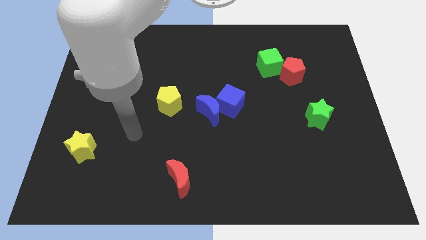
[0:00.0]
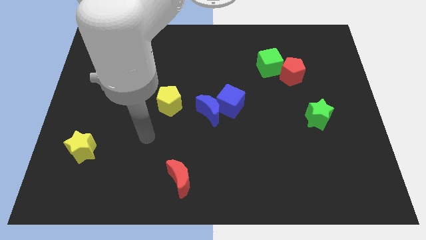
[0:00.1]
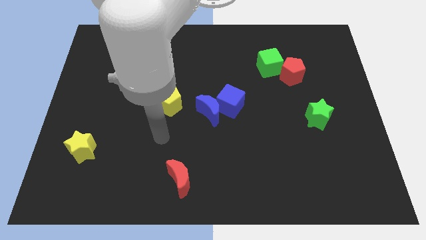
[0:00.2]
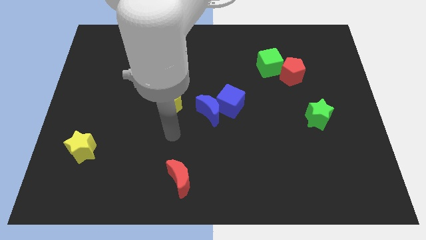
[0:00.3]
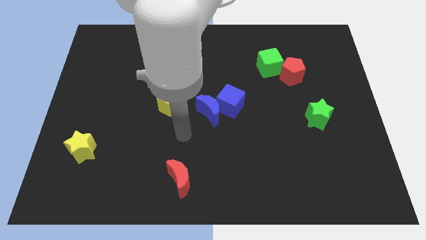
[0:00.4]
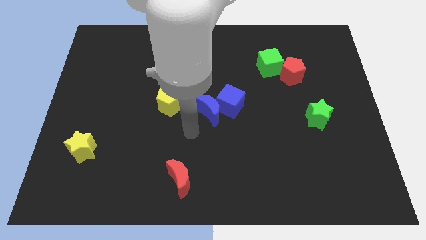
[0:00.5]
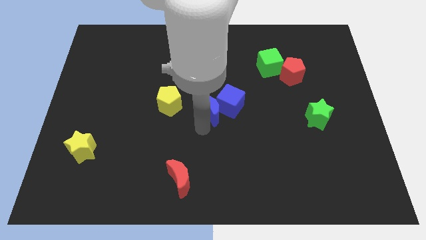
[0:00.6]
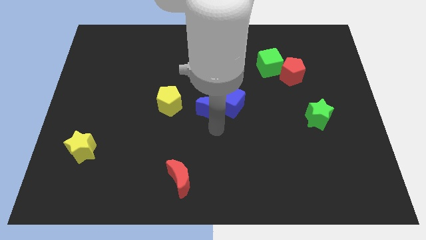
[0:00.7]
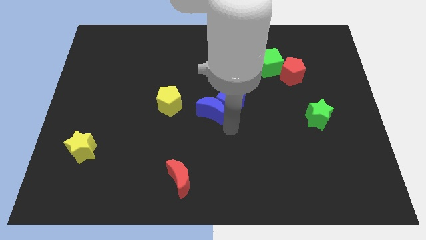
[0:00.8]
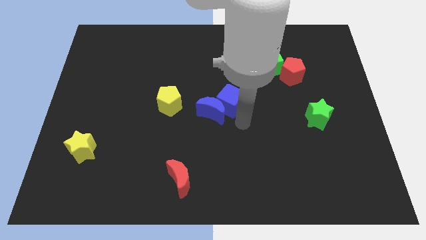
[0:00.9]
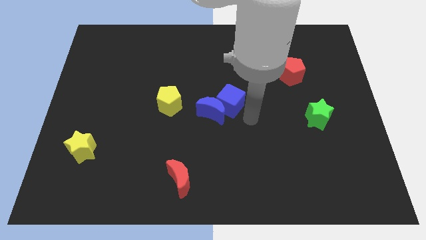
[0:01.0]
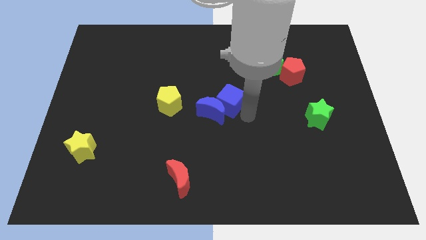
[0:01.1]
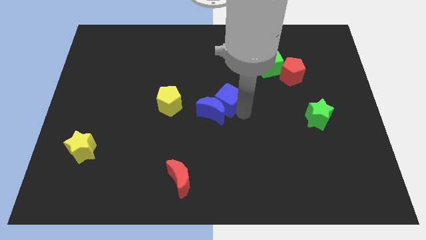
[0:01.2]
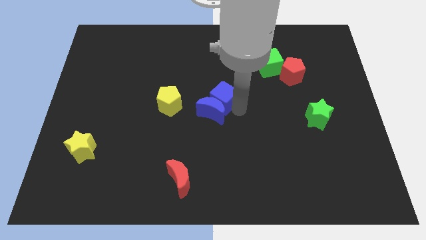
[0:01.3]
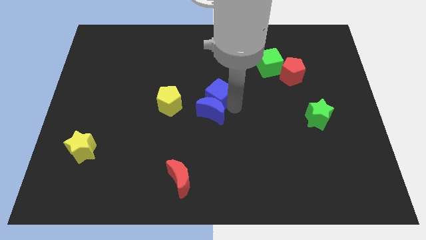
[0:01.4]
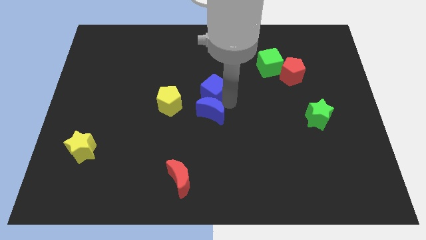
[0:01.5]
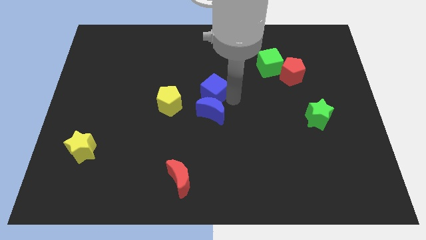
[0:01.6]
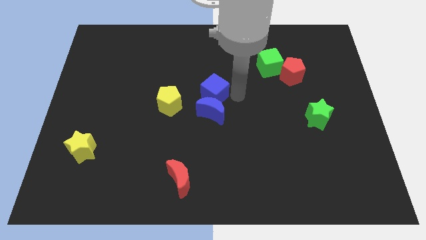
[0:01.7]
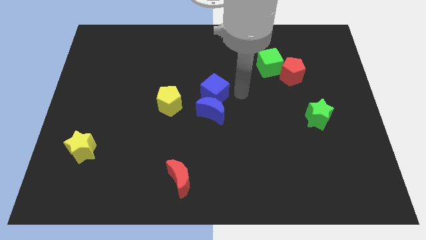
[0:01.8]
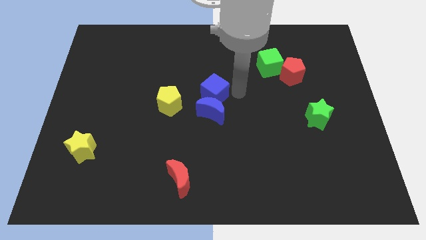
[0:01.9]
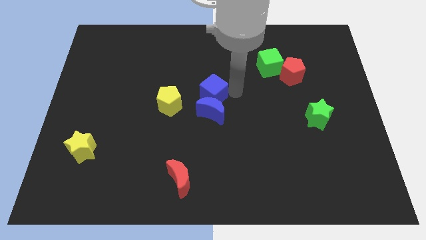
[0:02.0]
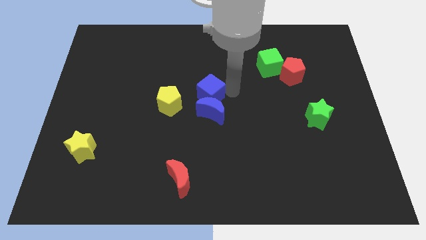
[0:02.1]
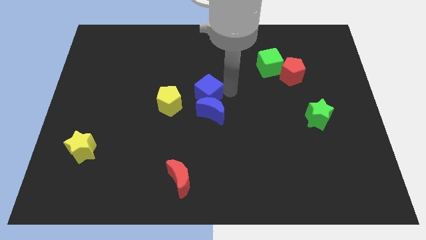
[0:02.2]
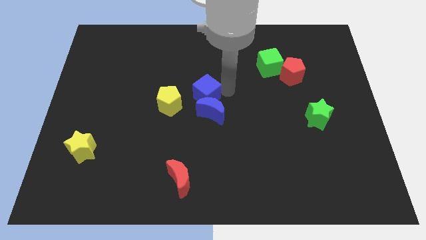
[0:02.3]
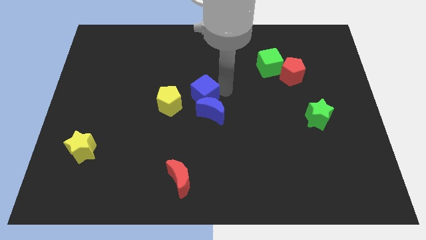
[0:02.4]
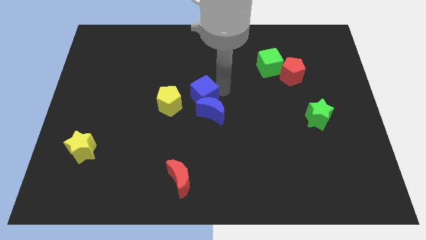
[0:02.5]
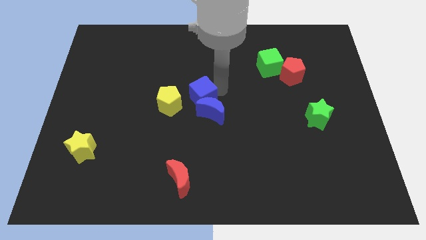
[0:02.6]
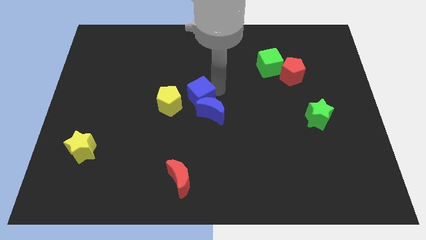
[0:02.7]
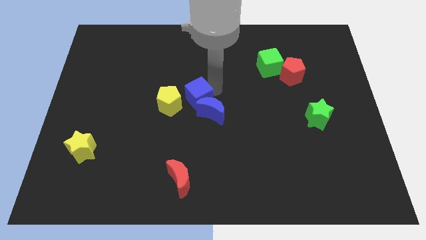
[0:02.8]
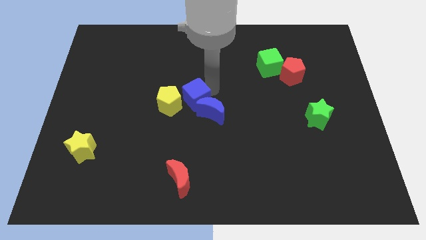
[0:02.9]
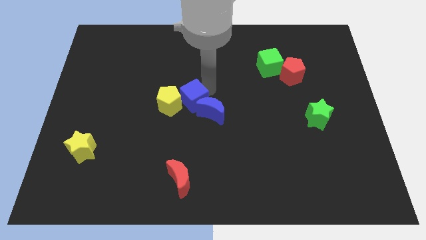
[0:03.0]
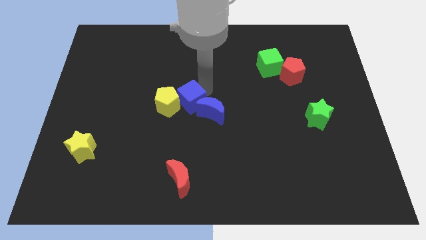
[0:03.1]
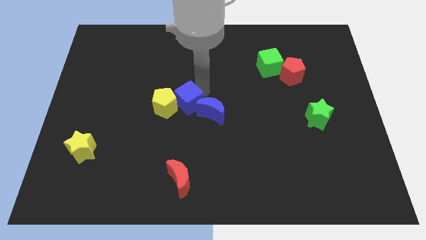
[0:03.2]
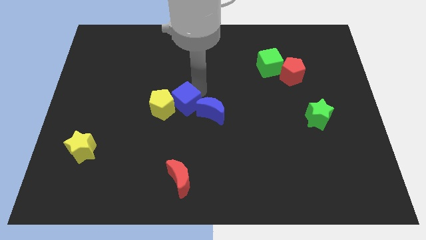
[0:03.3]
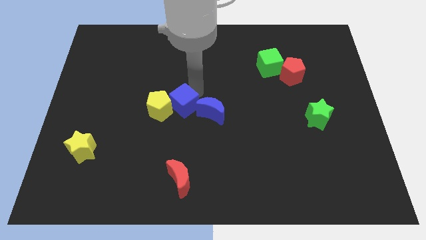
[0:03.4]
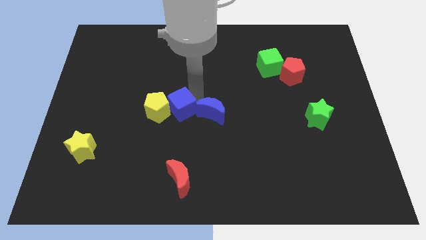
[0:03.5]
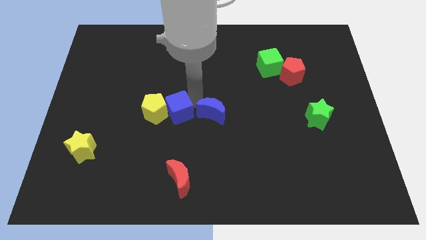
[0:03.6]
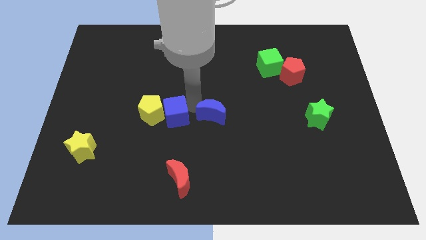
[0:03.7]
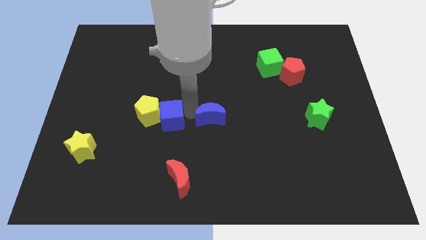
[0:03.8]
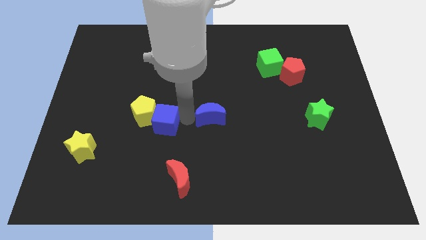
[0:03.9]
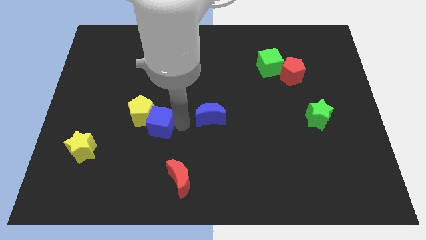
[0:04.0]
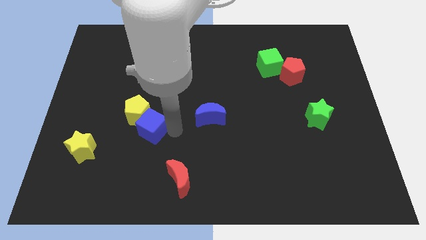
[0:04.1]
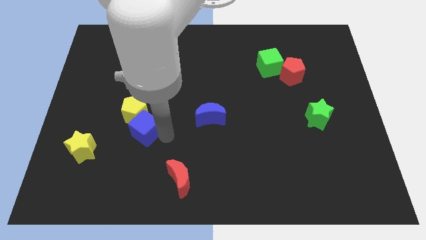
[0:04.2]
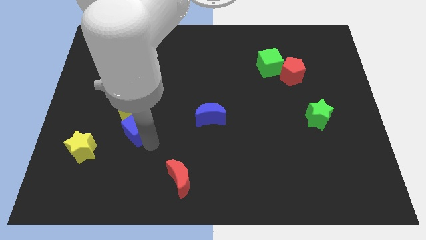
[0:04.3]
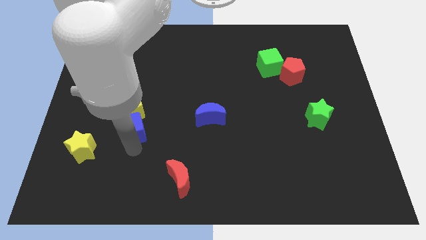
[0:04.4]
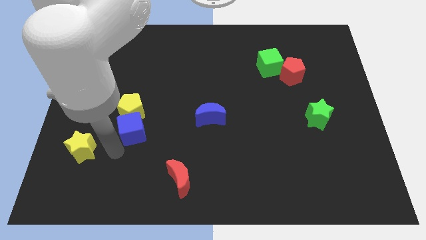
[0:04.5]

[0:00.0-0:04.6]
slide the blue cube left

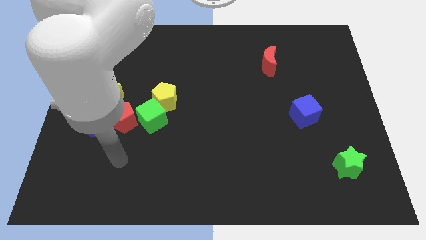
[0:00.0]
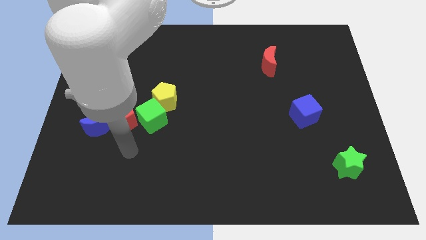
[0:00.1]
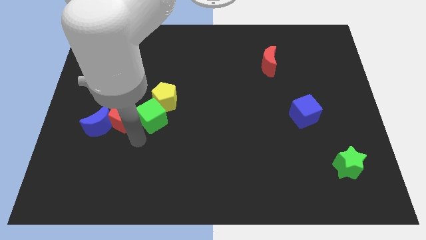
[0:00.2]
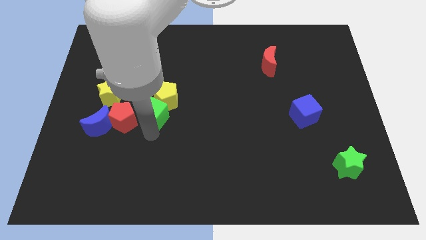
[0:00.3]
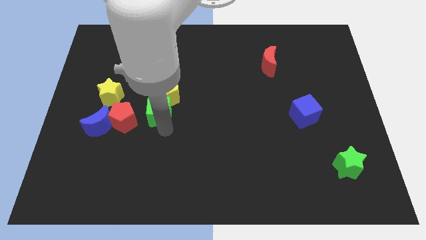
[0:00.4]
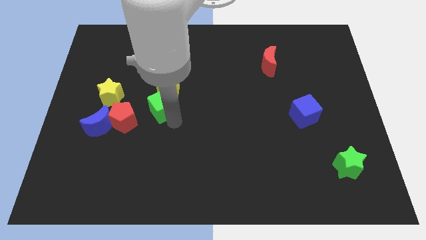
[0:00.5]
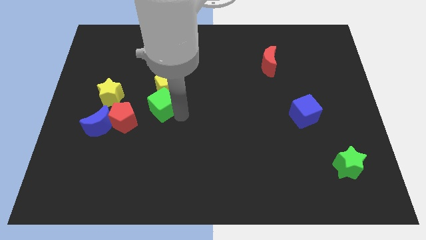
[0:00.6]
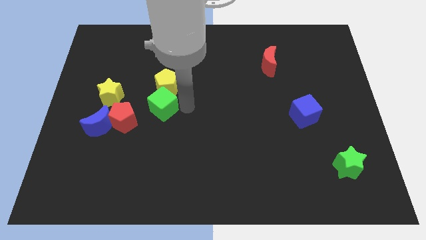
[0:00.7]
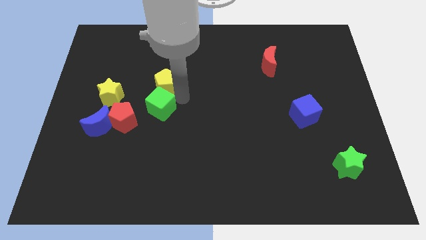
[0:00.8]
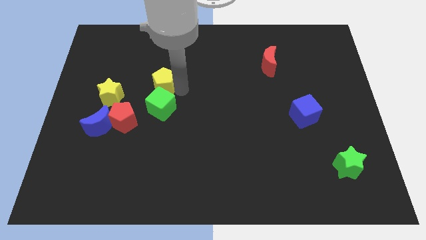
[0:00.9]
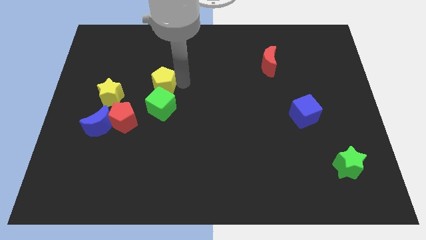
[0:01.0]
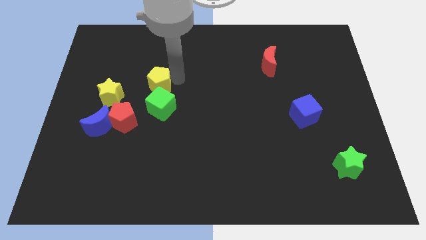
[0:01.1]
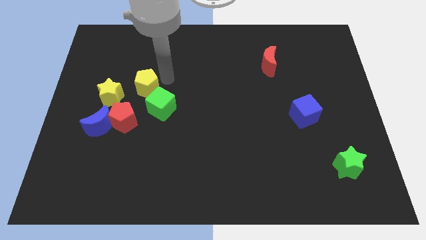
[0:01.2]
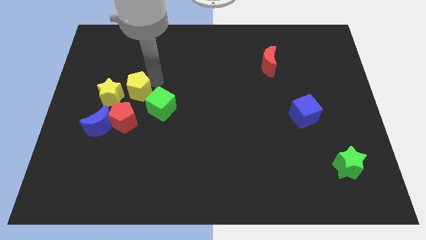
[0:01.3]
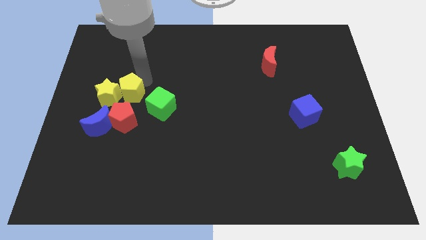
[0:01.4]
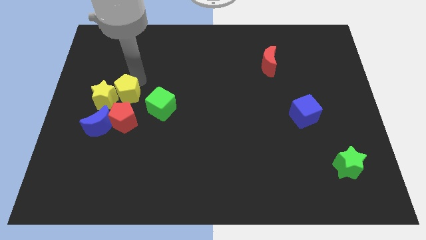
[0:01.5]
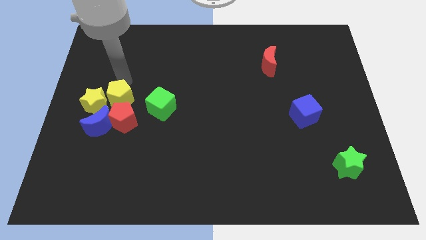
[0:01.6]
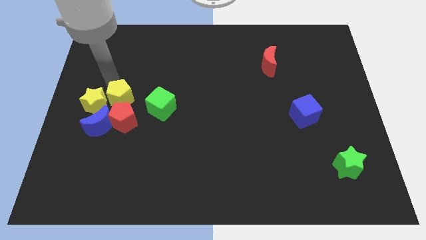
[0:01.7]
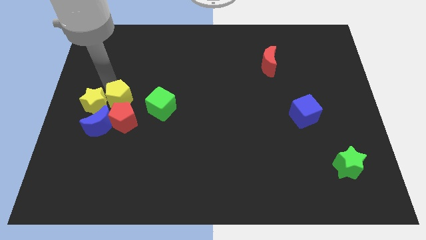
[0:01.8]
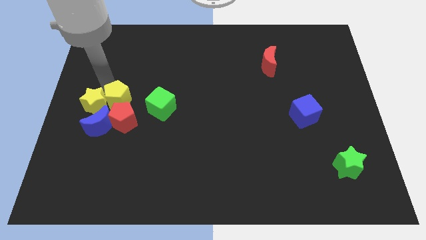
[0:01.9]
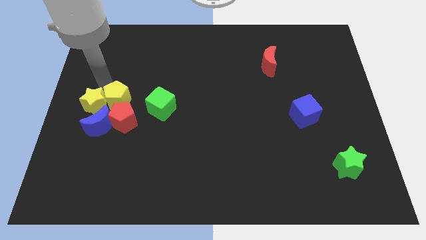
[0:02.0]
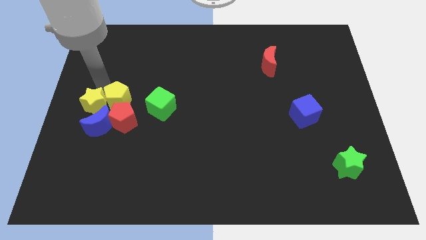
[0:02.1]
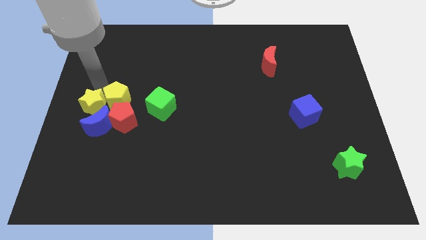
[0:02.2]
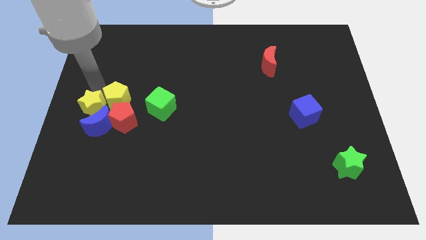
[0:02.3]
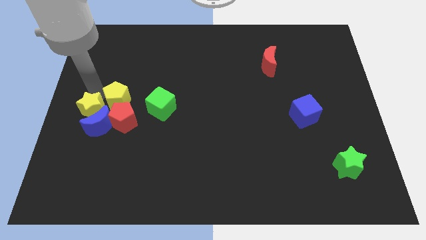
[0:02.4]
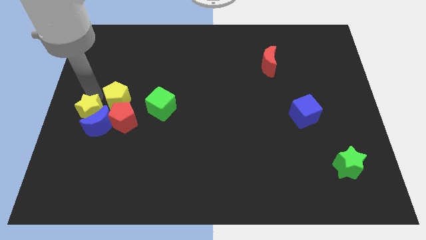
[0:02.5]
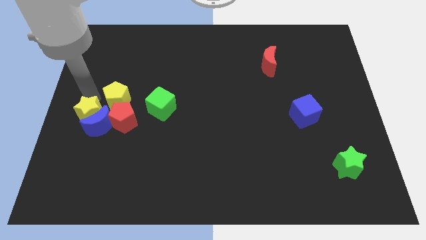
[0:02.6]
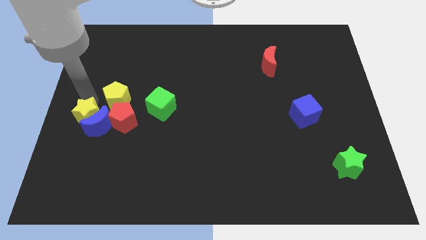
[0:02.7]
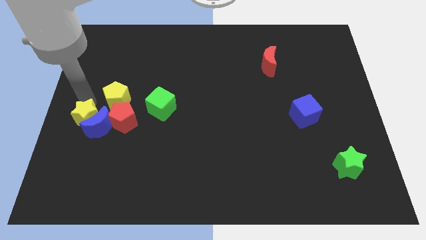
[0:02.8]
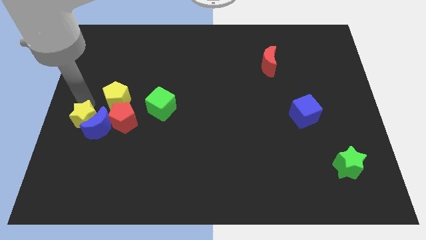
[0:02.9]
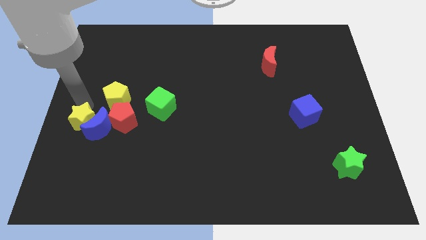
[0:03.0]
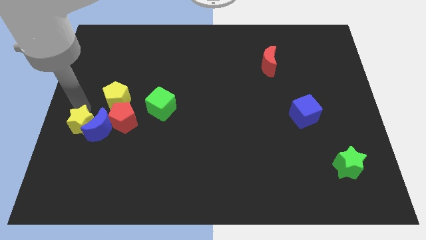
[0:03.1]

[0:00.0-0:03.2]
move the yellow star a bit downwards

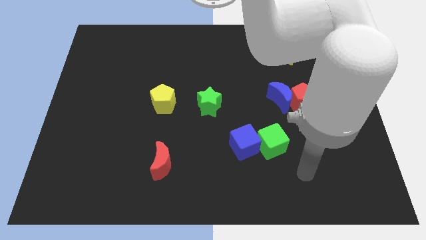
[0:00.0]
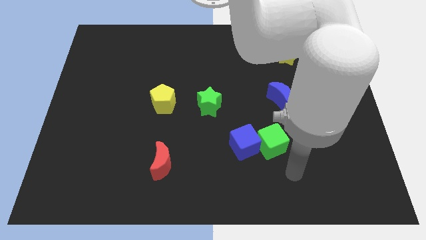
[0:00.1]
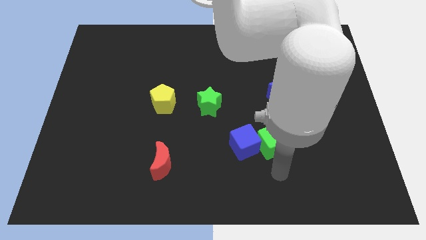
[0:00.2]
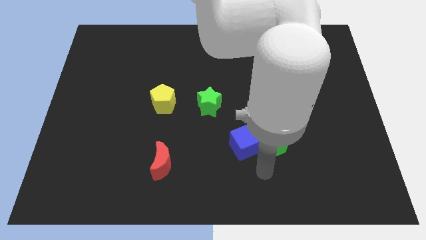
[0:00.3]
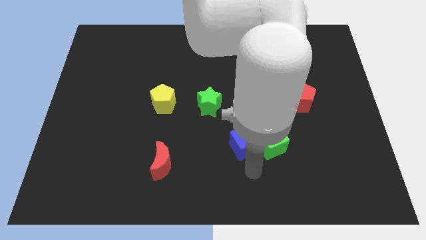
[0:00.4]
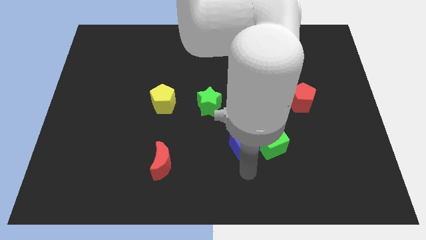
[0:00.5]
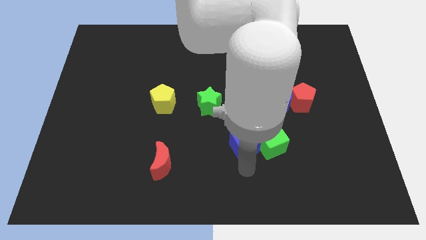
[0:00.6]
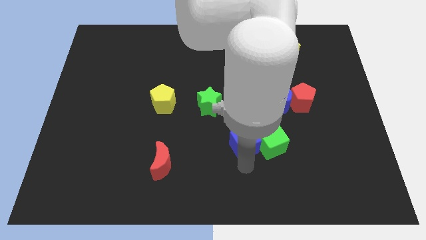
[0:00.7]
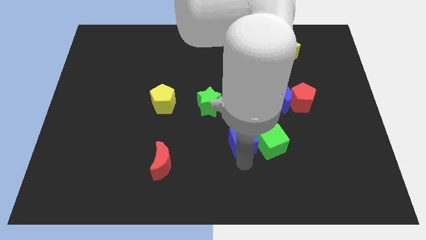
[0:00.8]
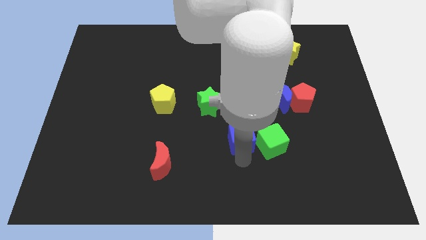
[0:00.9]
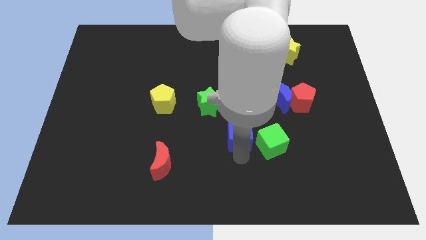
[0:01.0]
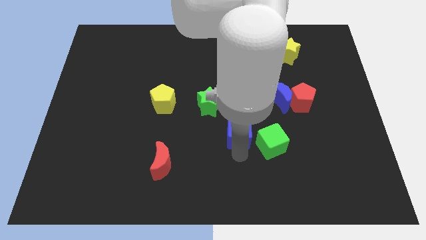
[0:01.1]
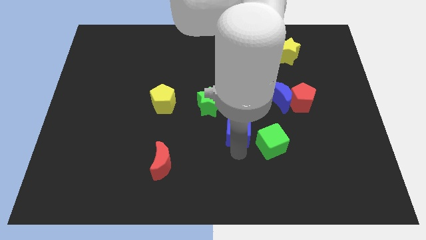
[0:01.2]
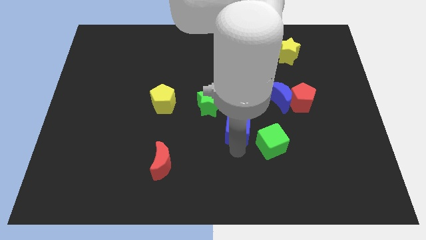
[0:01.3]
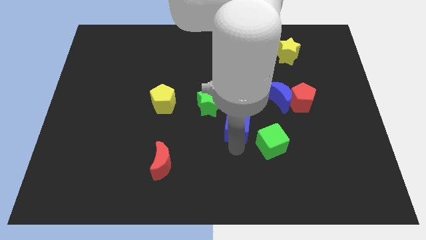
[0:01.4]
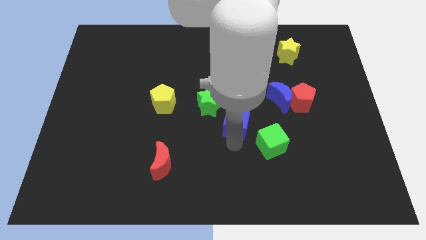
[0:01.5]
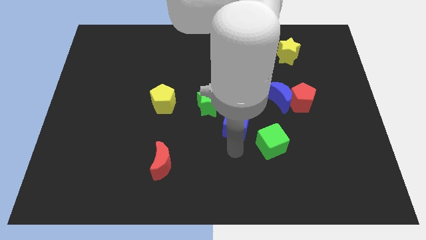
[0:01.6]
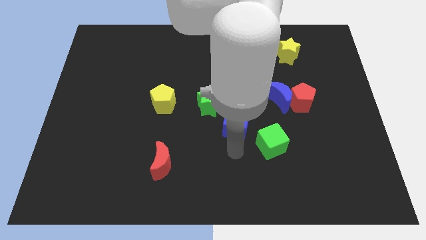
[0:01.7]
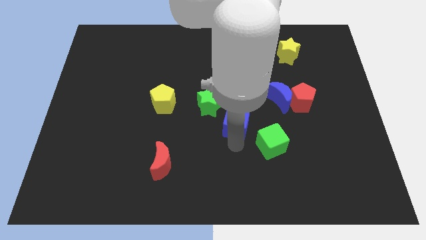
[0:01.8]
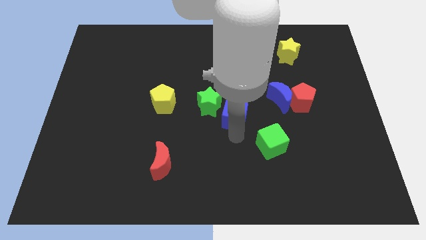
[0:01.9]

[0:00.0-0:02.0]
slightly move the blue cube up
